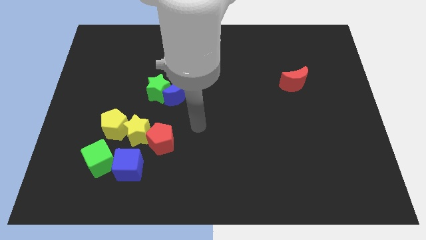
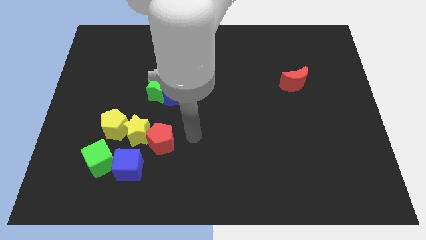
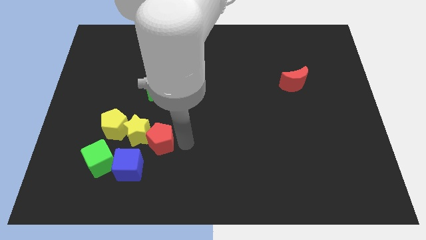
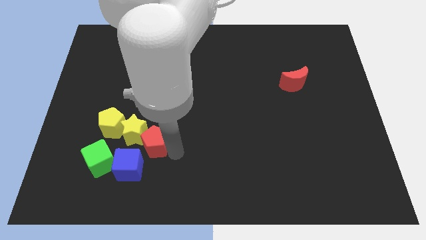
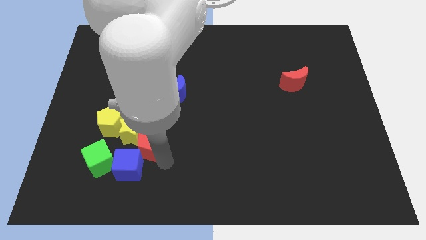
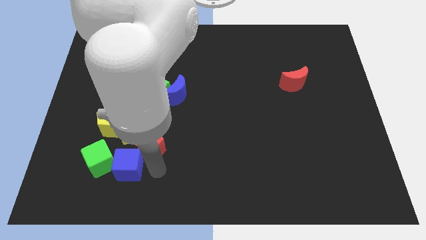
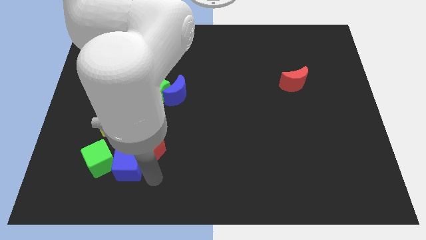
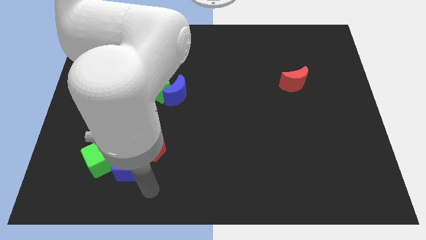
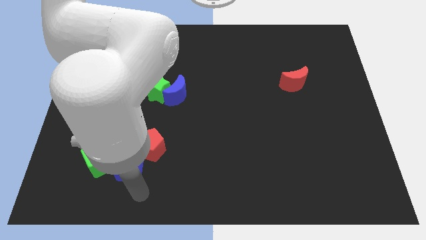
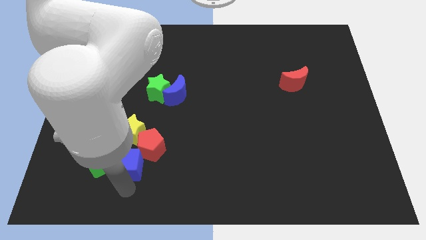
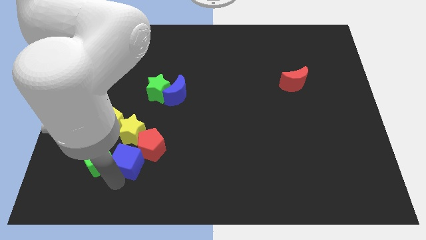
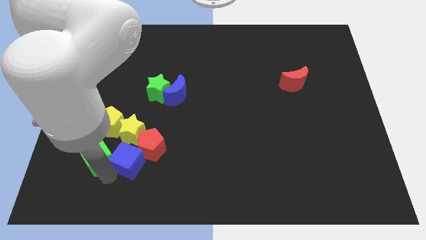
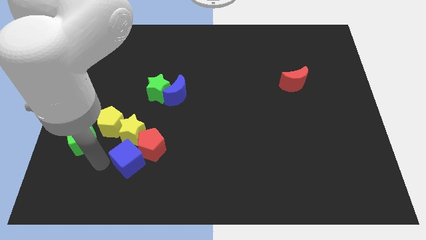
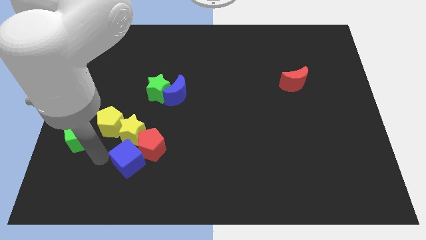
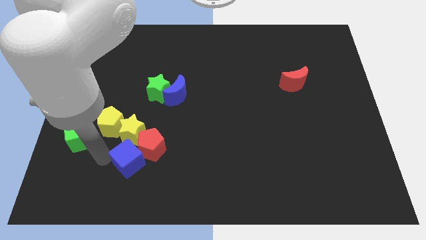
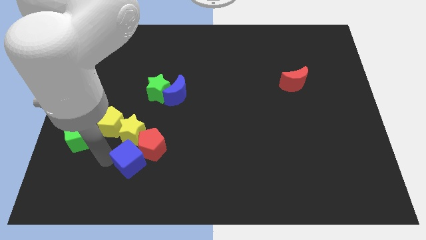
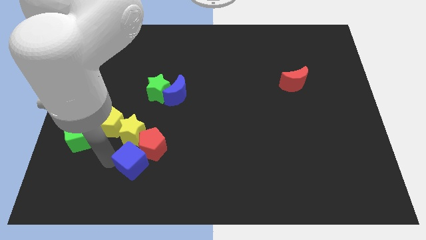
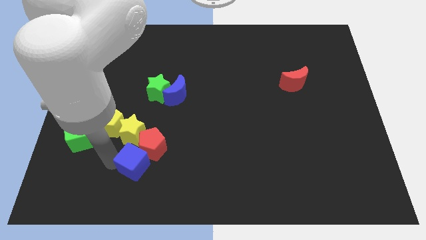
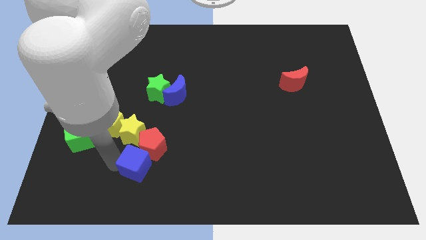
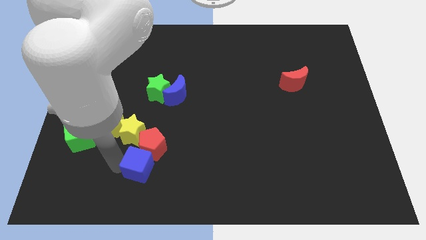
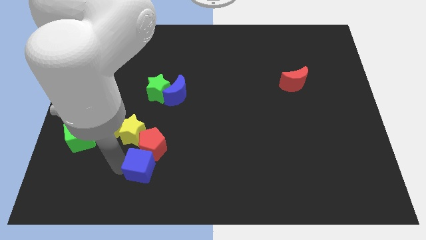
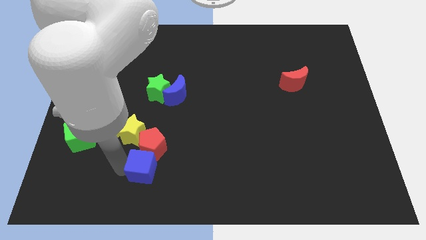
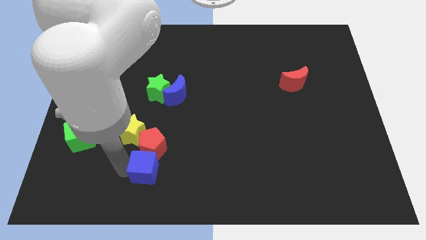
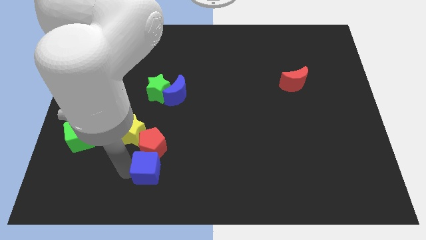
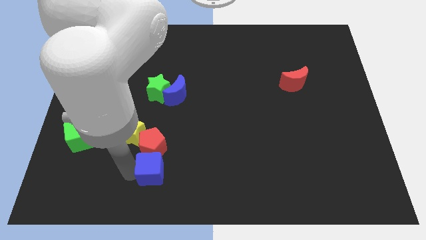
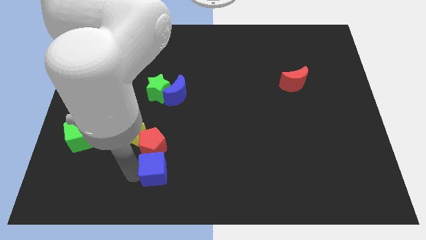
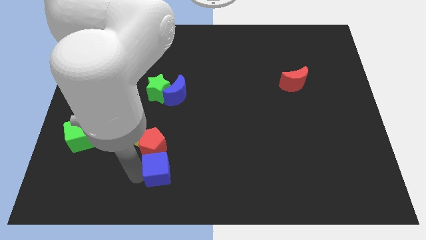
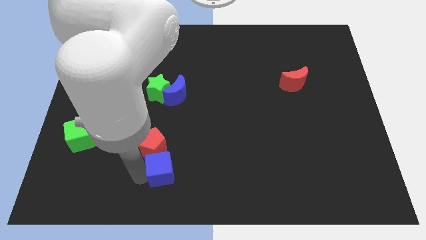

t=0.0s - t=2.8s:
push the blue cube to the right somewhat

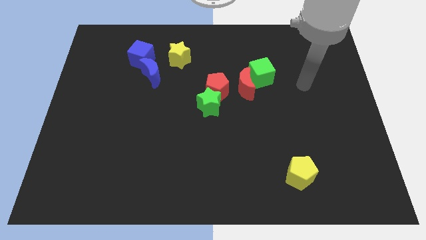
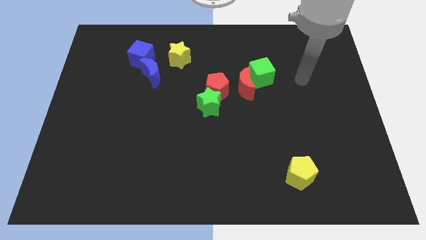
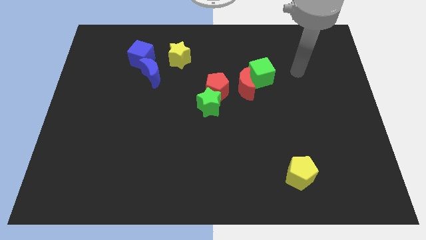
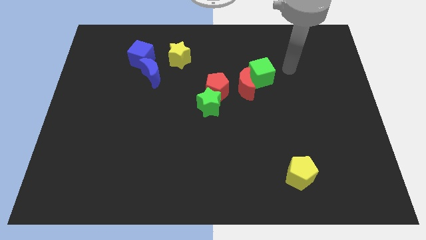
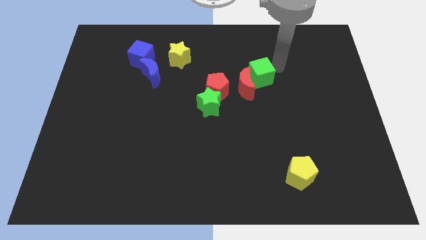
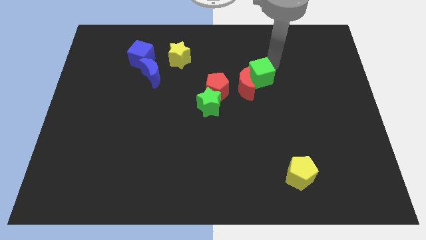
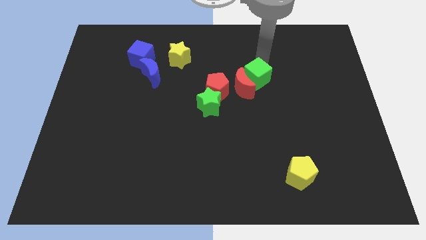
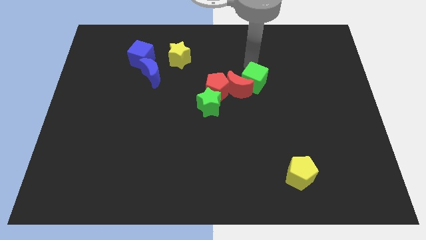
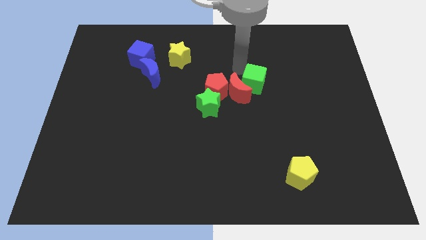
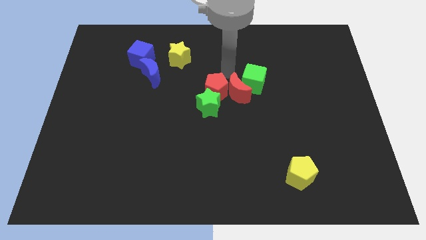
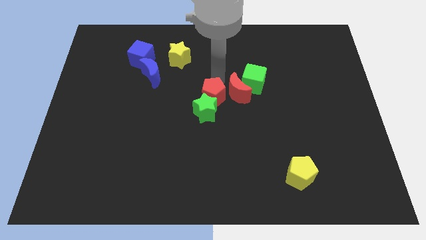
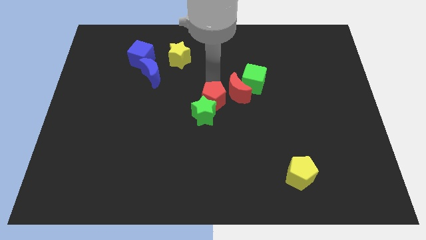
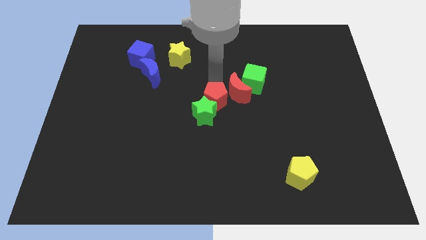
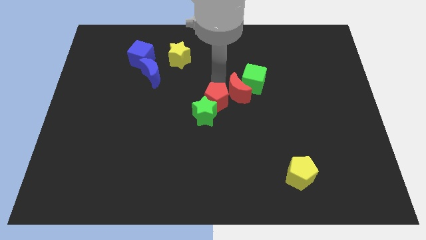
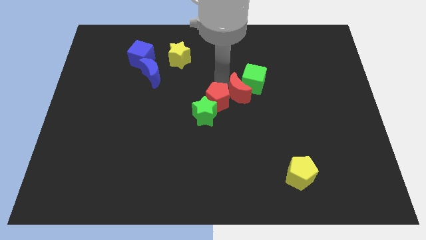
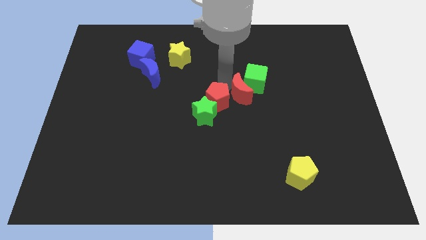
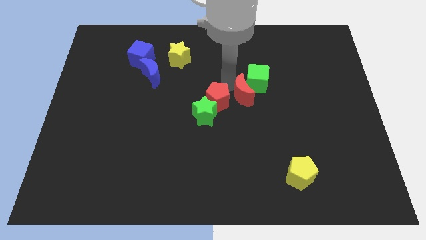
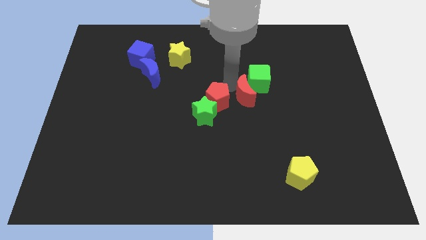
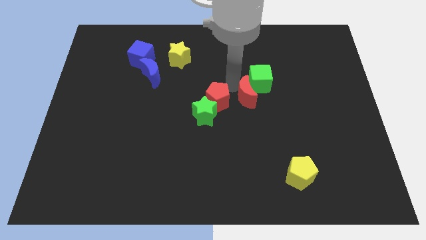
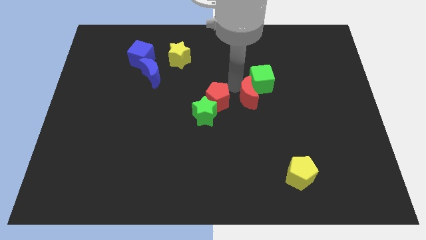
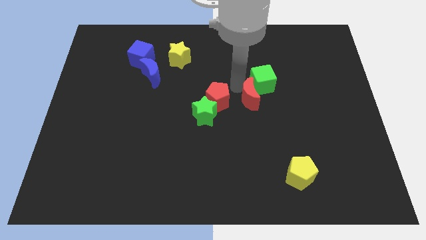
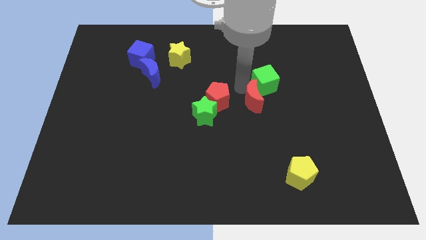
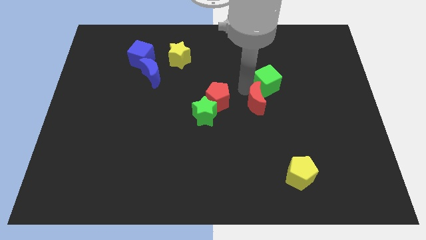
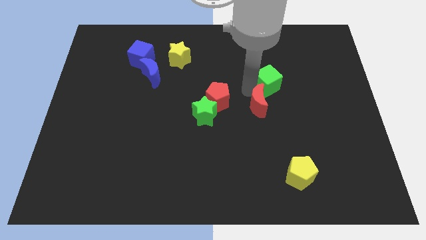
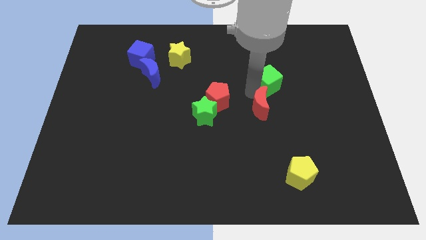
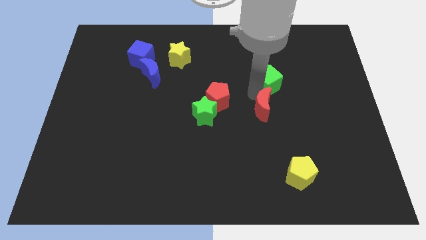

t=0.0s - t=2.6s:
push the red moon a bit downwards and then right

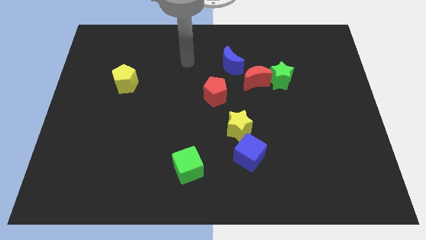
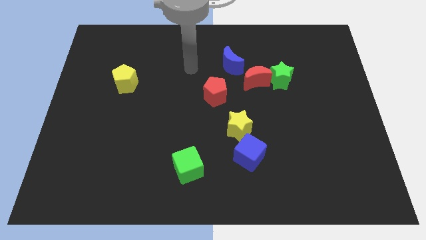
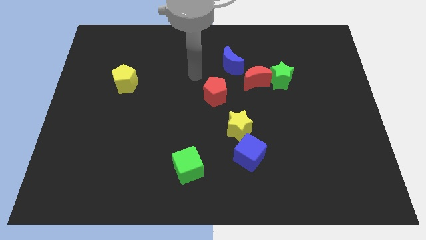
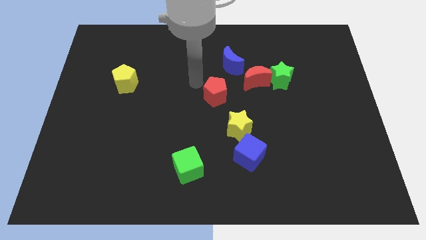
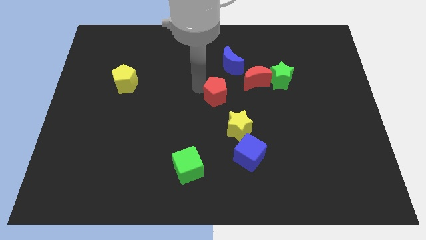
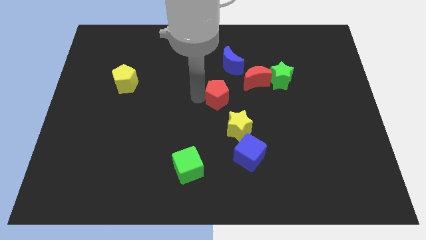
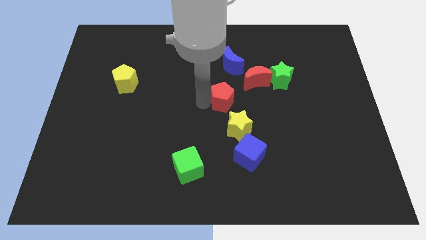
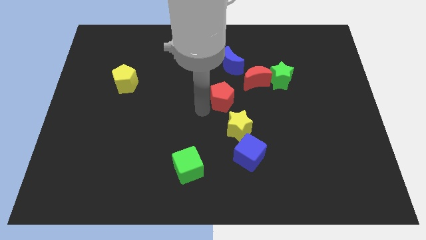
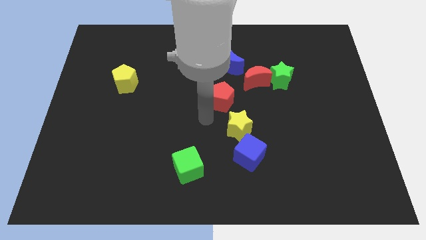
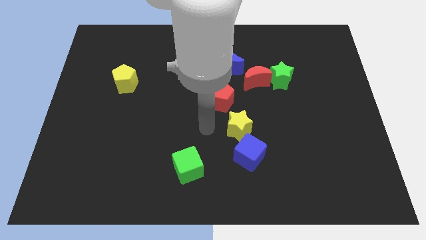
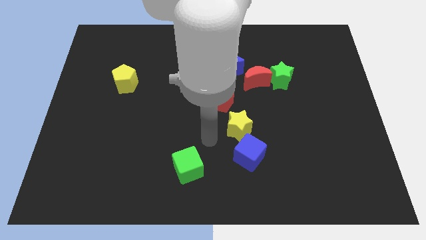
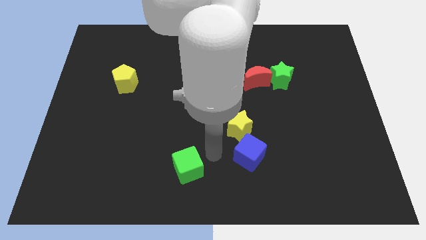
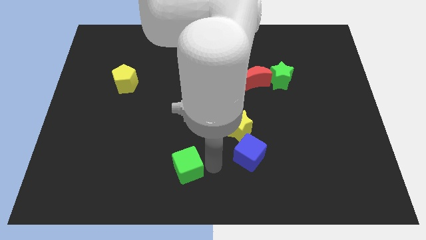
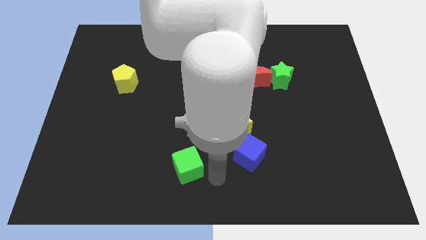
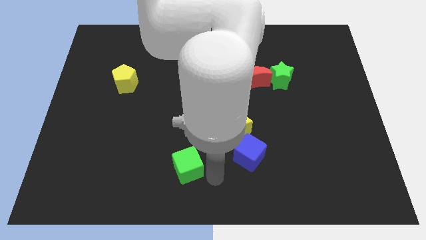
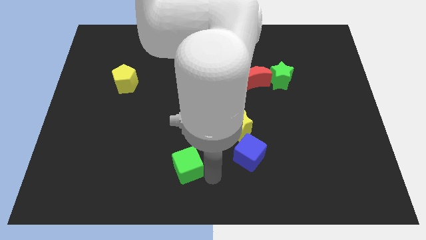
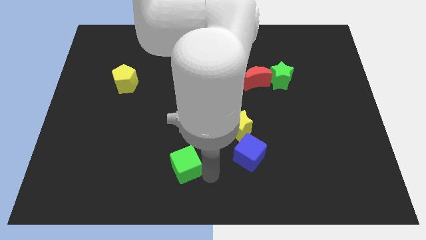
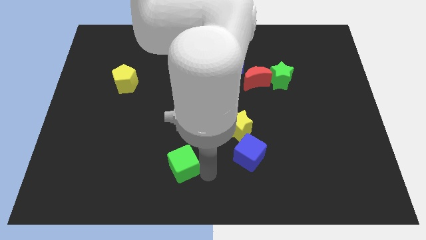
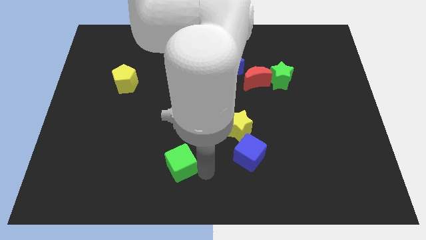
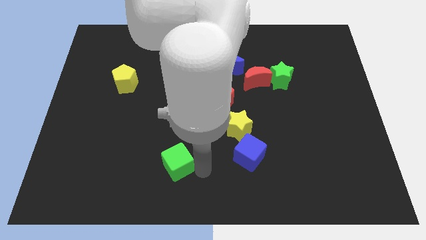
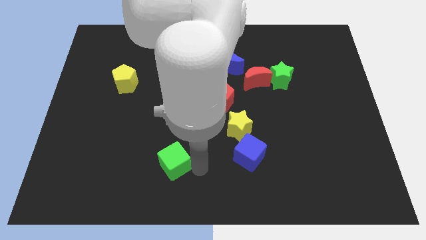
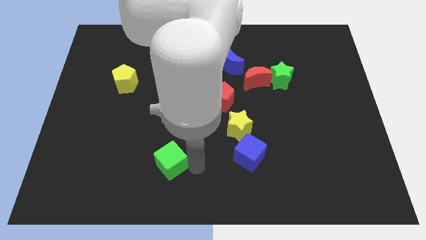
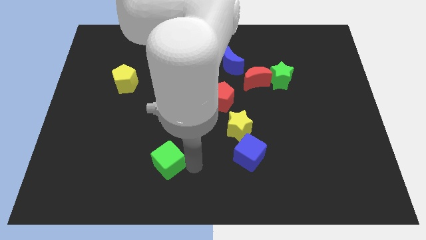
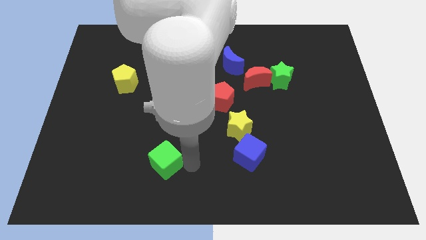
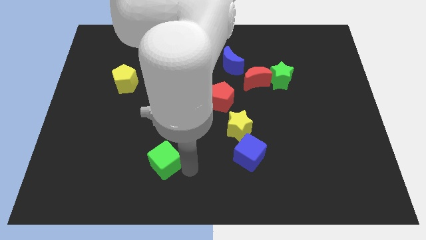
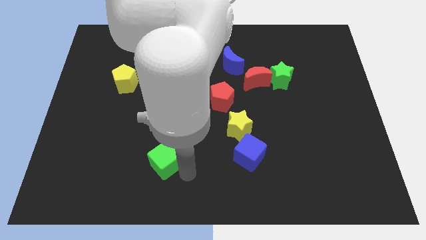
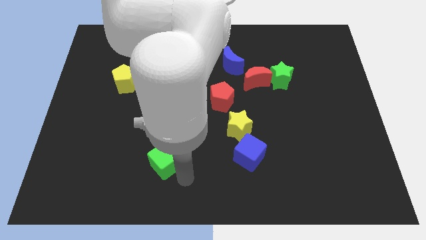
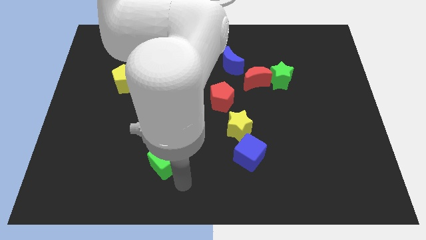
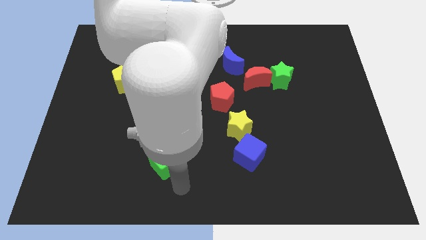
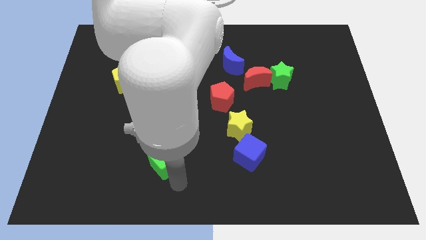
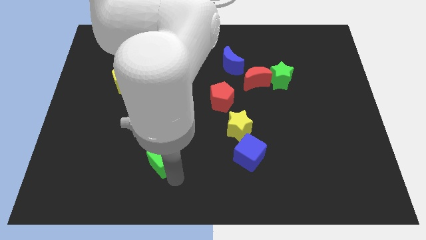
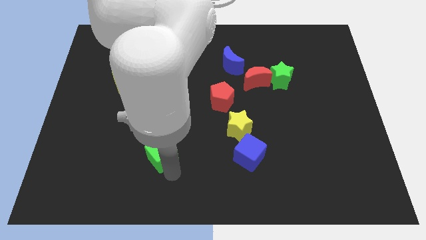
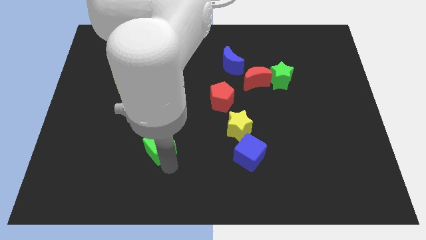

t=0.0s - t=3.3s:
slide the green cube somewhat upwards and left diagonally
